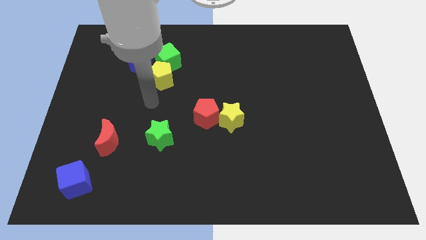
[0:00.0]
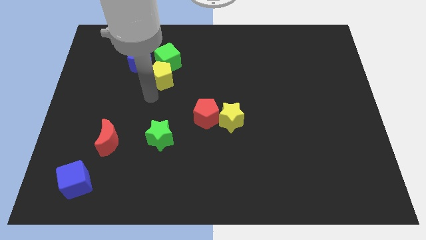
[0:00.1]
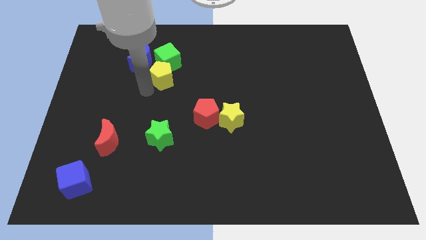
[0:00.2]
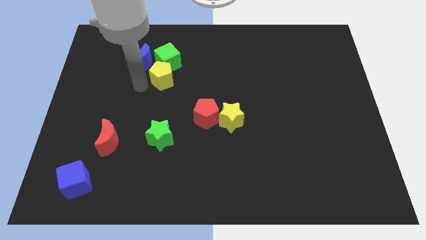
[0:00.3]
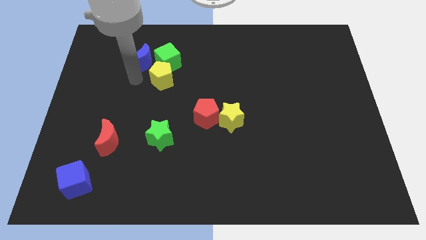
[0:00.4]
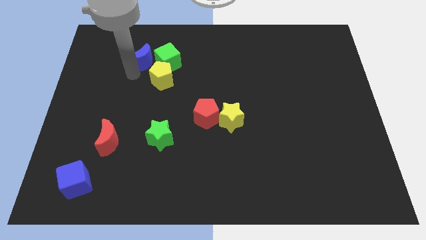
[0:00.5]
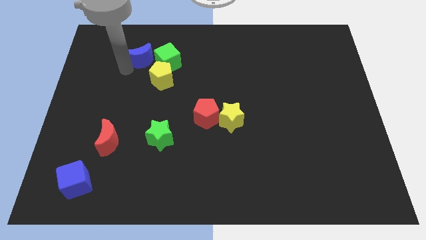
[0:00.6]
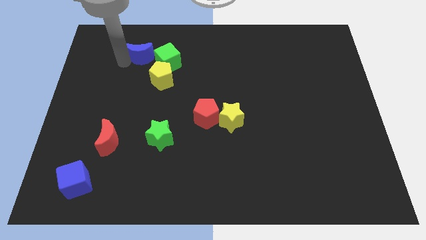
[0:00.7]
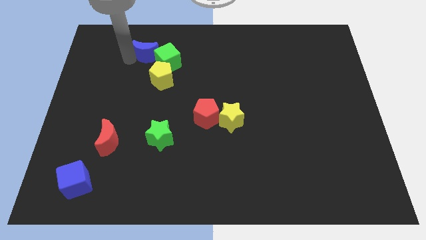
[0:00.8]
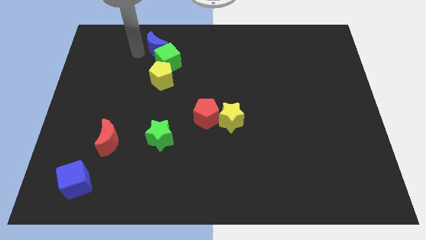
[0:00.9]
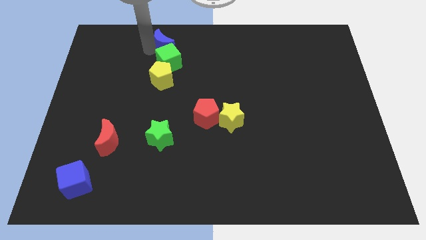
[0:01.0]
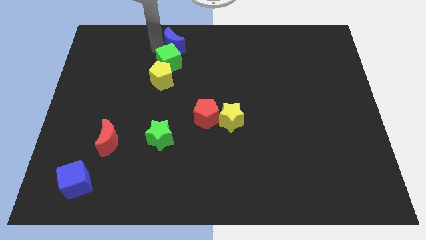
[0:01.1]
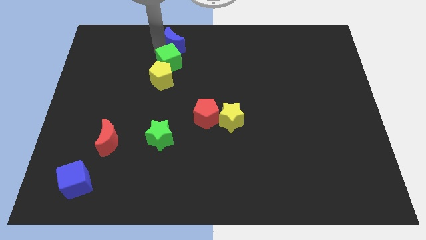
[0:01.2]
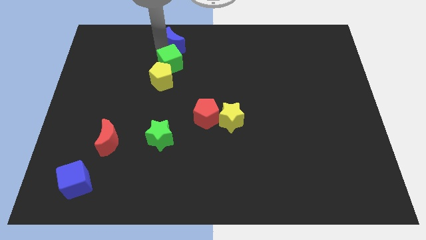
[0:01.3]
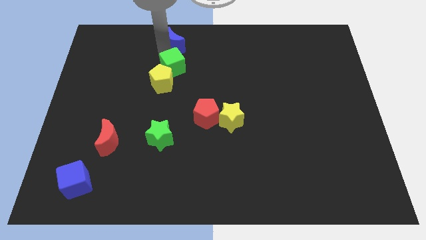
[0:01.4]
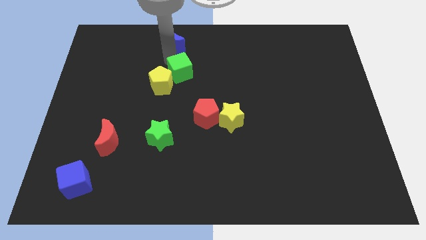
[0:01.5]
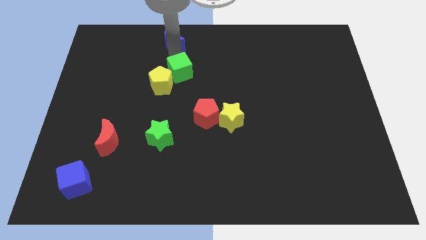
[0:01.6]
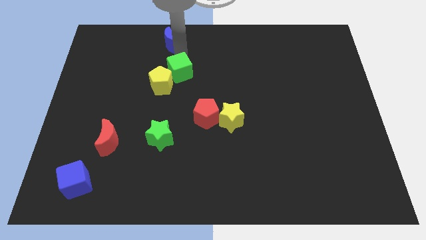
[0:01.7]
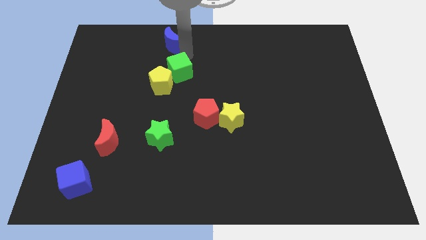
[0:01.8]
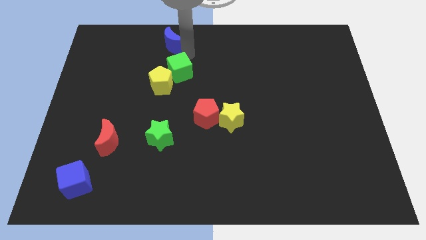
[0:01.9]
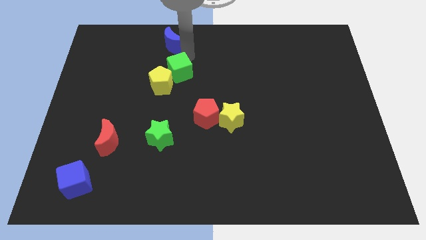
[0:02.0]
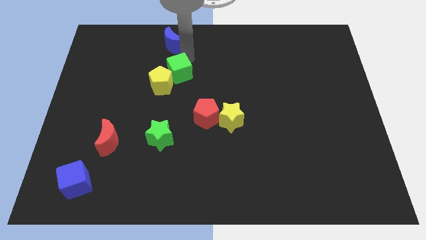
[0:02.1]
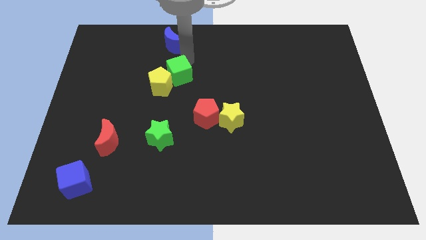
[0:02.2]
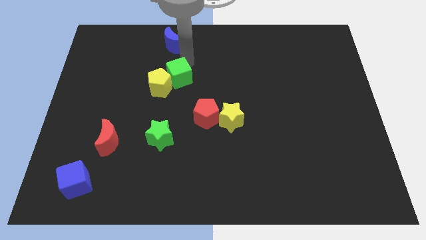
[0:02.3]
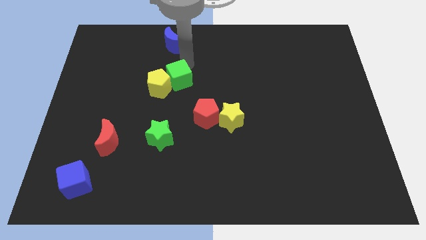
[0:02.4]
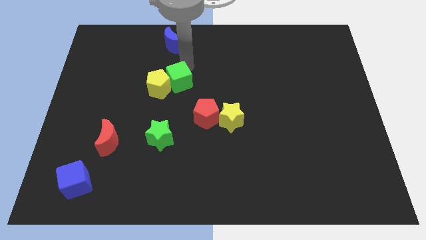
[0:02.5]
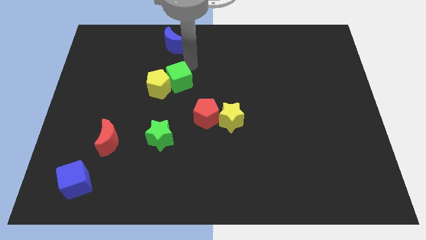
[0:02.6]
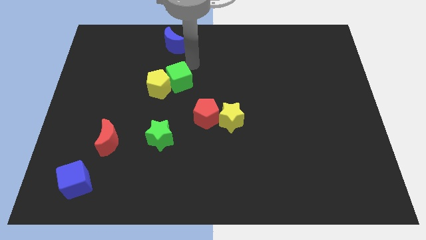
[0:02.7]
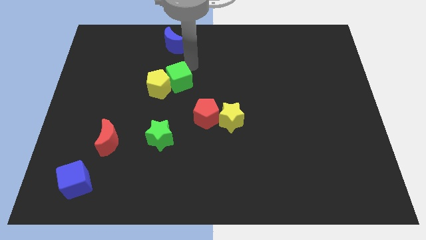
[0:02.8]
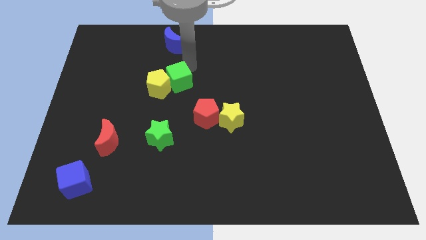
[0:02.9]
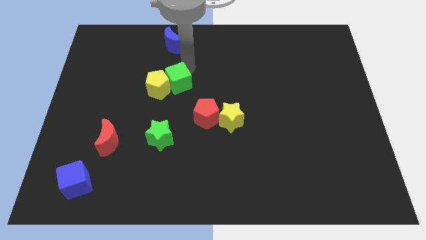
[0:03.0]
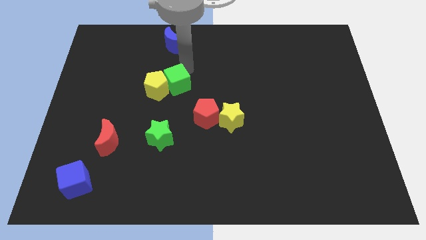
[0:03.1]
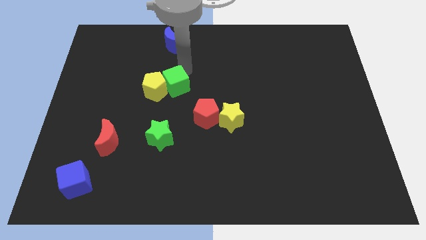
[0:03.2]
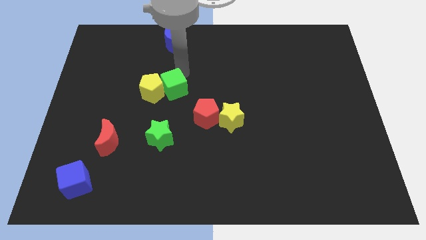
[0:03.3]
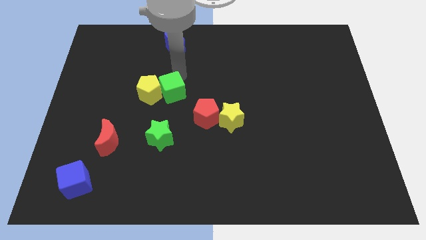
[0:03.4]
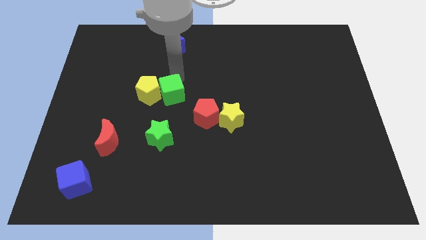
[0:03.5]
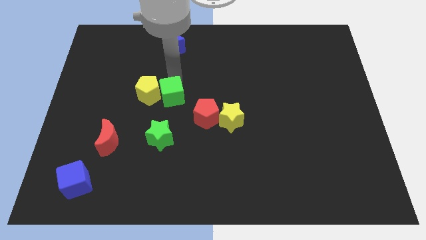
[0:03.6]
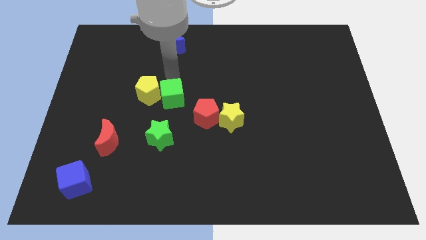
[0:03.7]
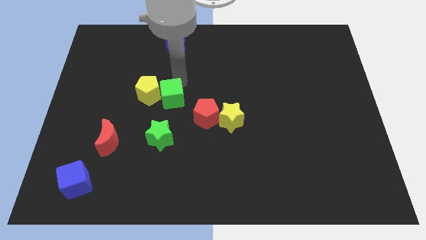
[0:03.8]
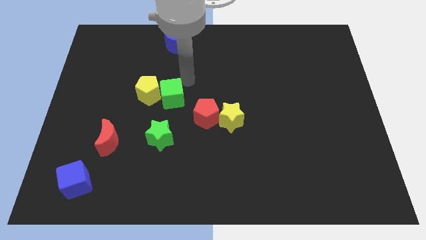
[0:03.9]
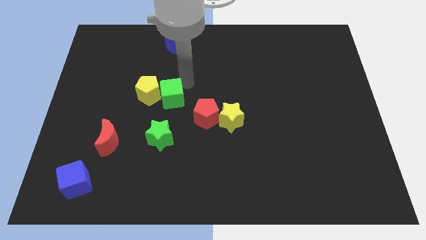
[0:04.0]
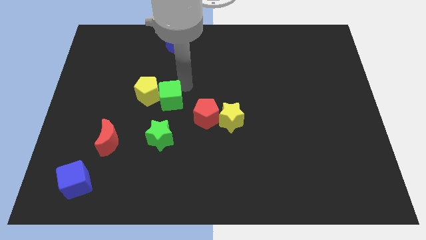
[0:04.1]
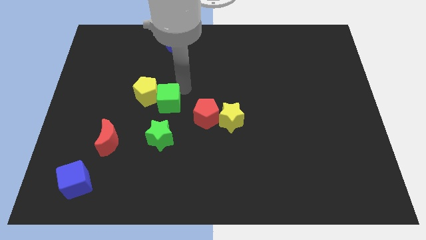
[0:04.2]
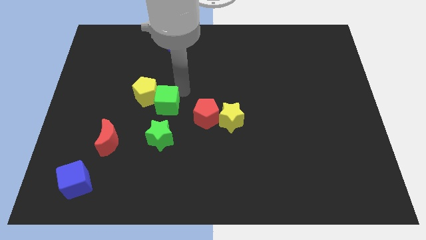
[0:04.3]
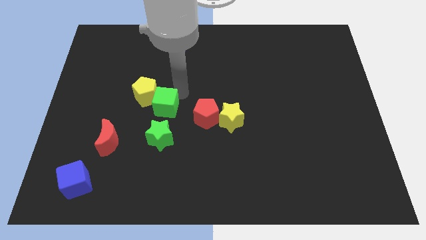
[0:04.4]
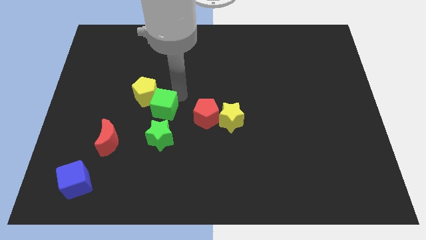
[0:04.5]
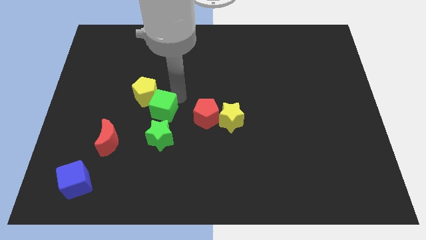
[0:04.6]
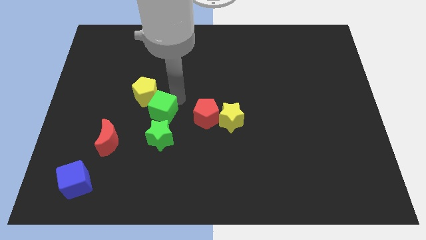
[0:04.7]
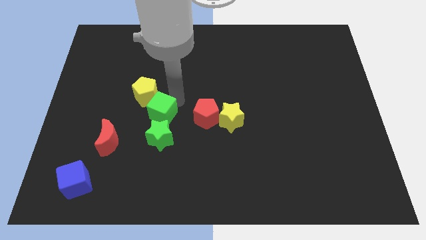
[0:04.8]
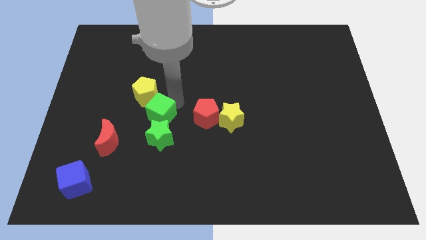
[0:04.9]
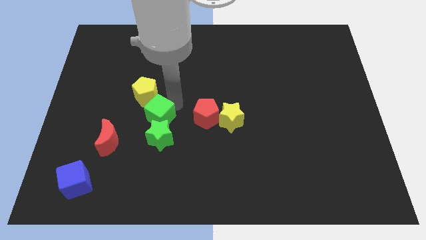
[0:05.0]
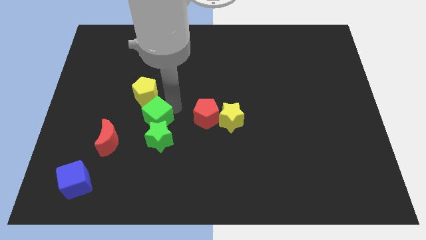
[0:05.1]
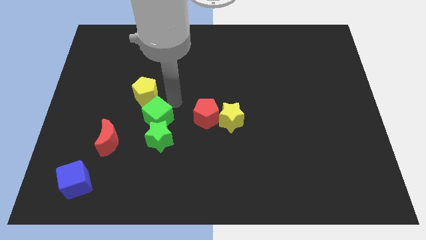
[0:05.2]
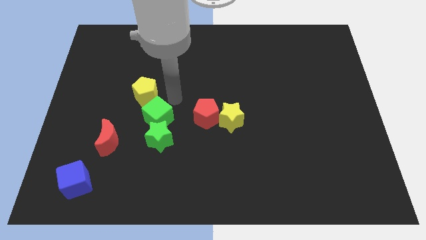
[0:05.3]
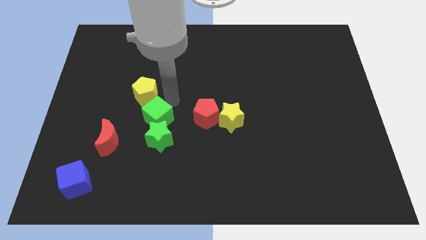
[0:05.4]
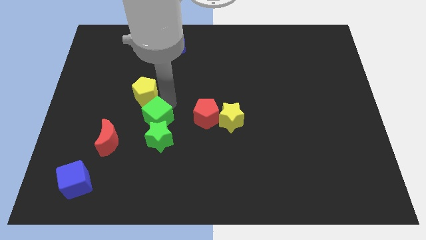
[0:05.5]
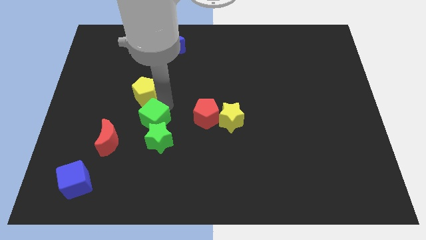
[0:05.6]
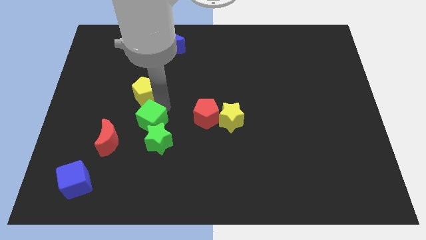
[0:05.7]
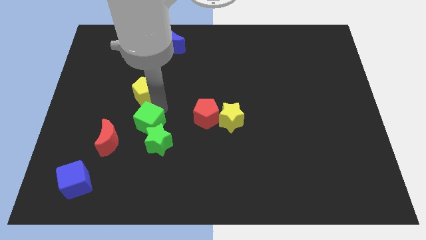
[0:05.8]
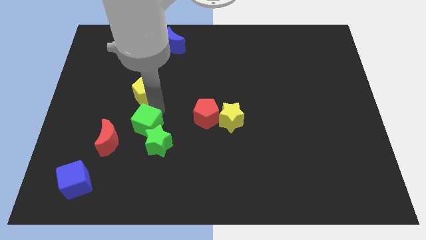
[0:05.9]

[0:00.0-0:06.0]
slide the green cube down

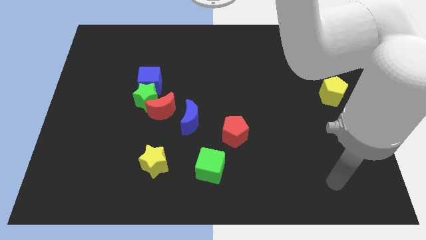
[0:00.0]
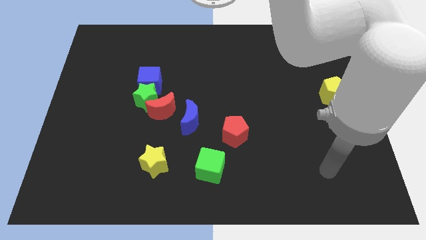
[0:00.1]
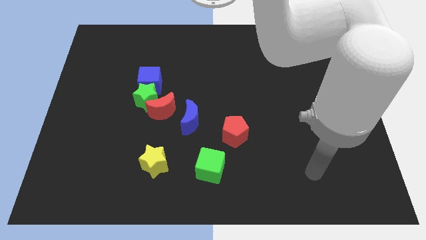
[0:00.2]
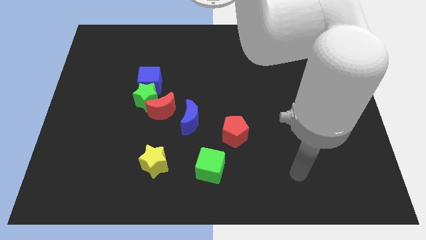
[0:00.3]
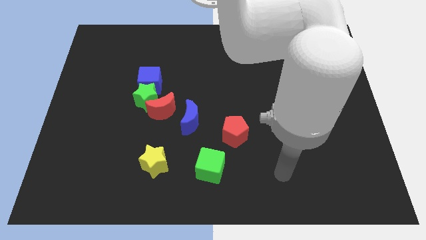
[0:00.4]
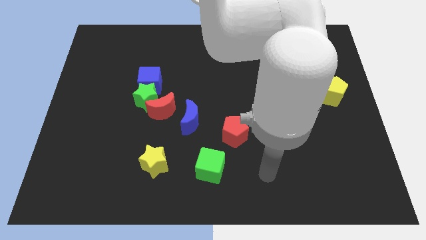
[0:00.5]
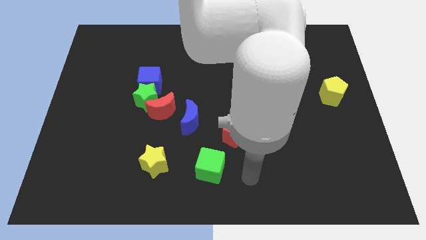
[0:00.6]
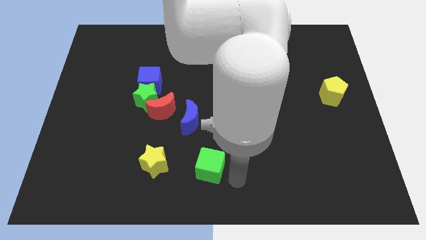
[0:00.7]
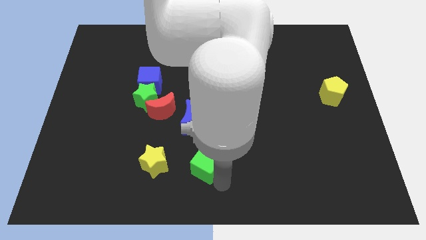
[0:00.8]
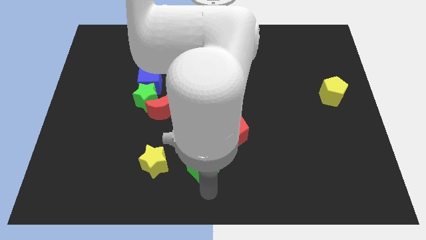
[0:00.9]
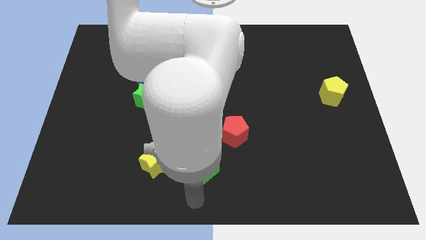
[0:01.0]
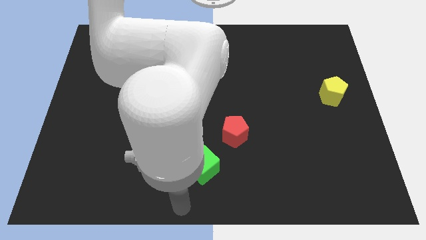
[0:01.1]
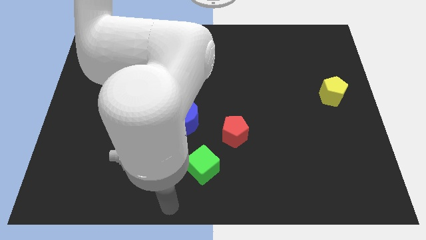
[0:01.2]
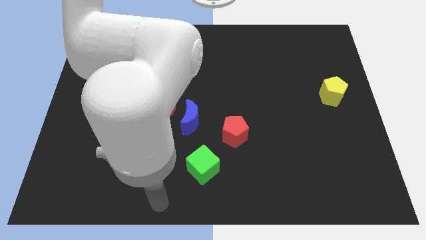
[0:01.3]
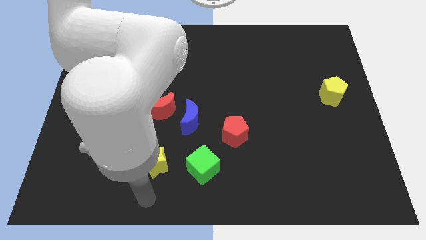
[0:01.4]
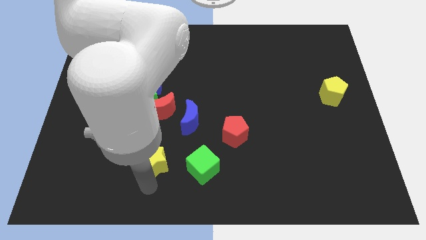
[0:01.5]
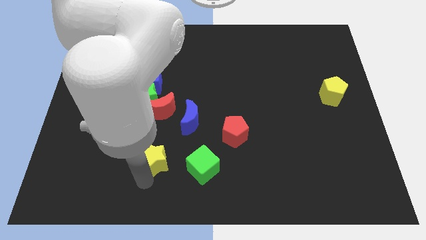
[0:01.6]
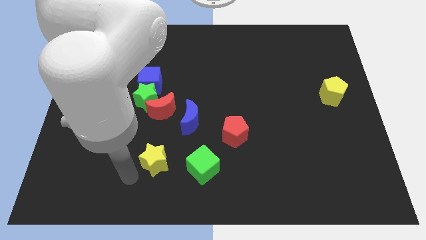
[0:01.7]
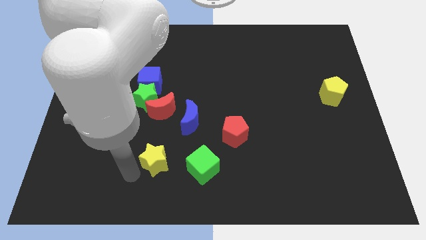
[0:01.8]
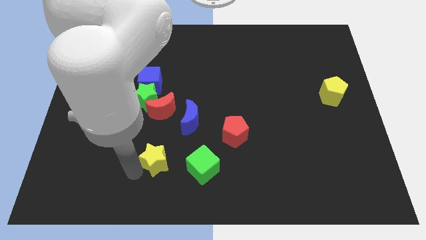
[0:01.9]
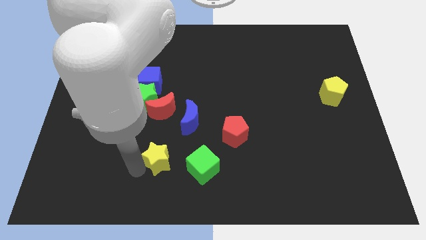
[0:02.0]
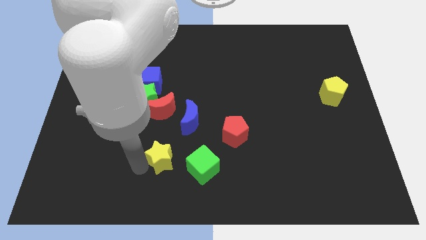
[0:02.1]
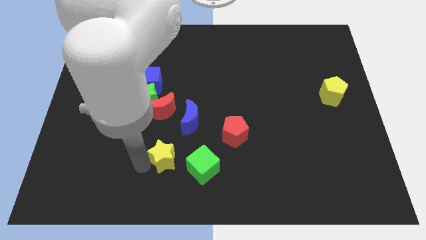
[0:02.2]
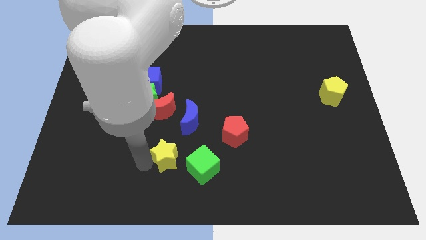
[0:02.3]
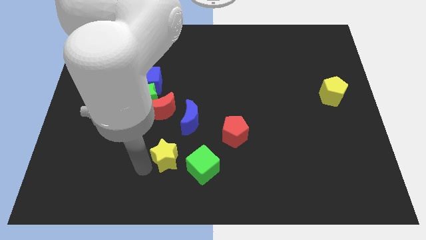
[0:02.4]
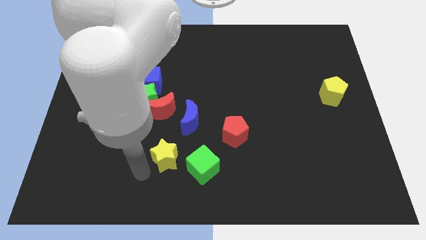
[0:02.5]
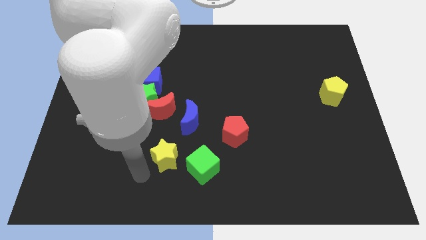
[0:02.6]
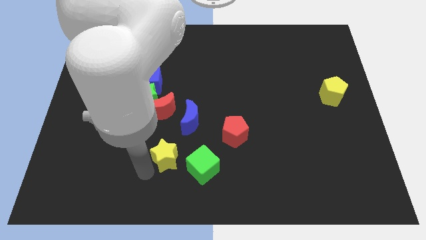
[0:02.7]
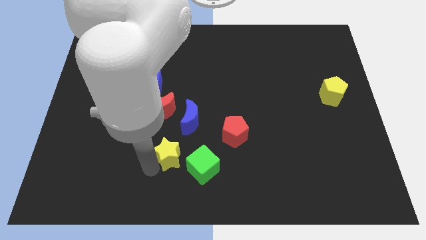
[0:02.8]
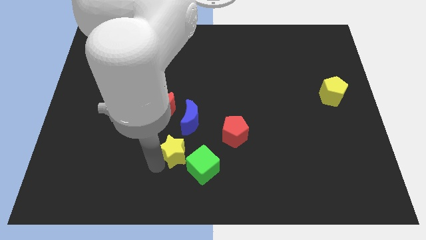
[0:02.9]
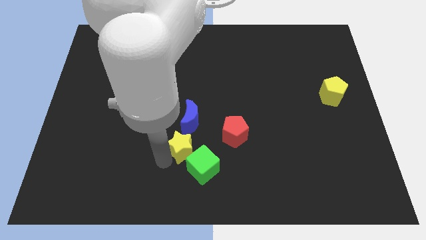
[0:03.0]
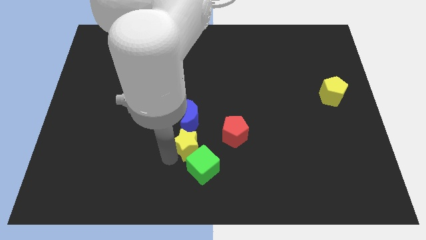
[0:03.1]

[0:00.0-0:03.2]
push the yellow star a little up and right
